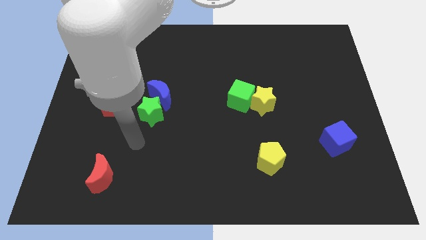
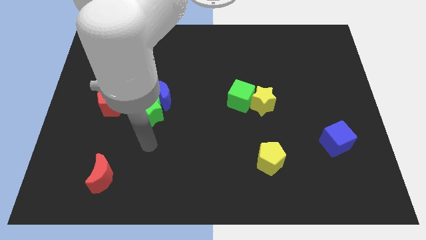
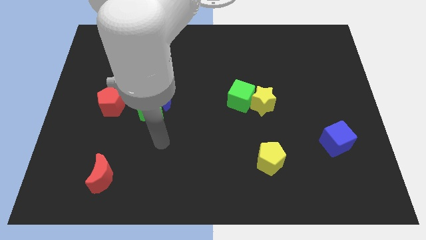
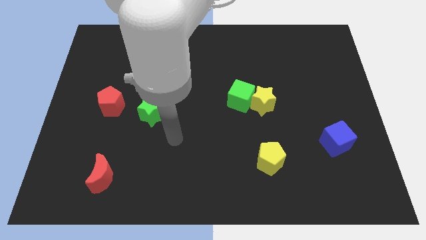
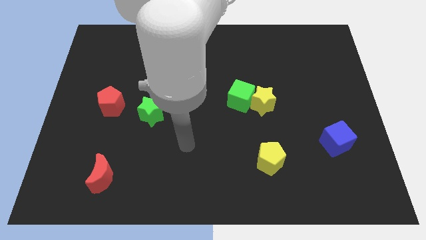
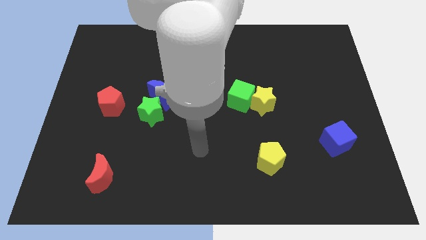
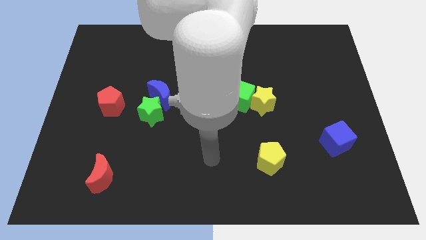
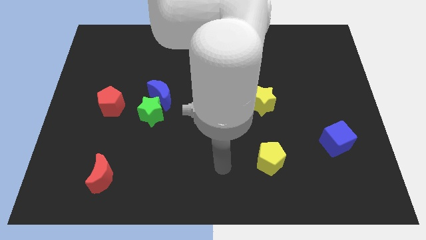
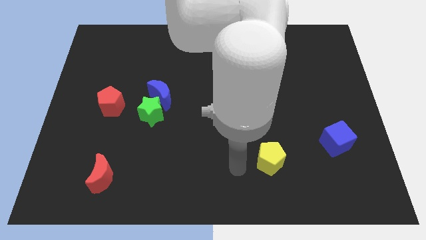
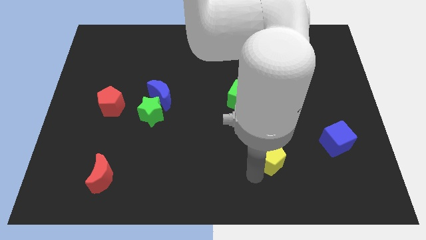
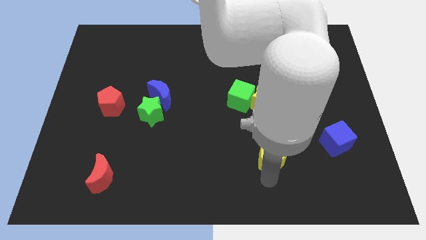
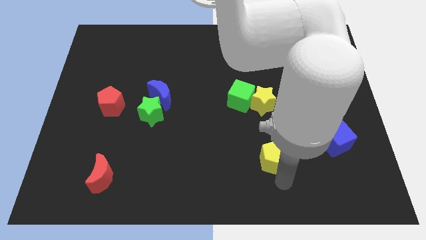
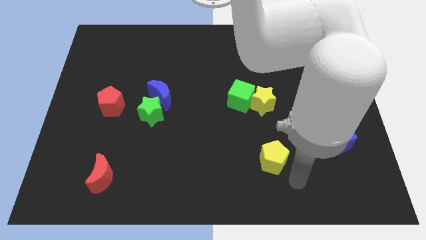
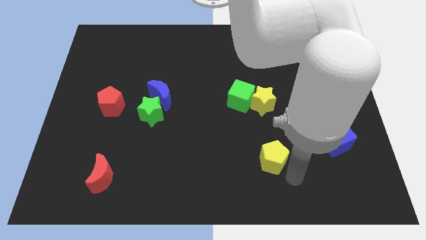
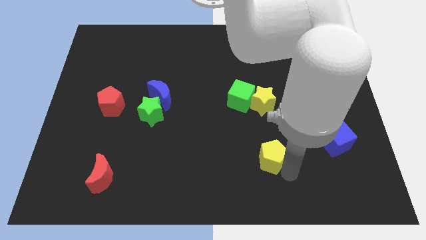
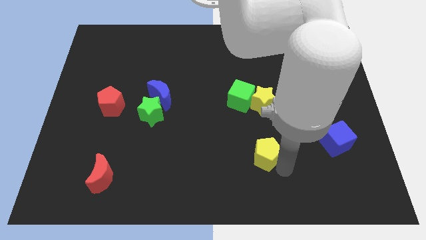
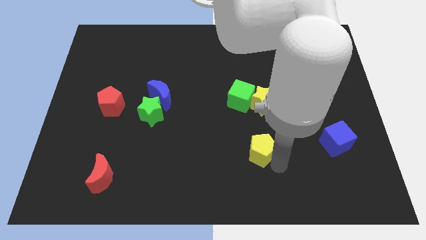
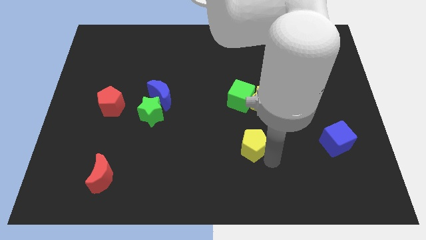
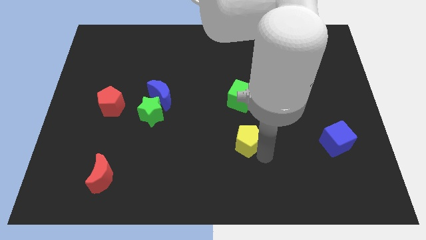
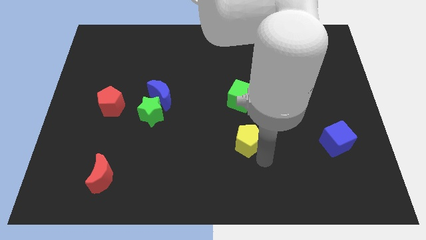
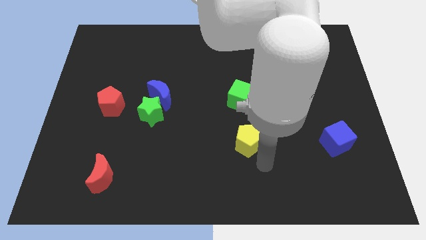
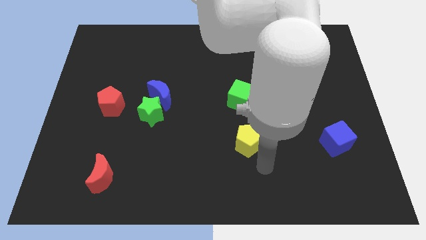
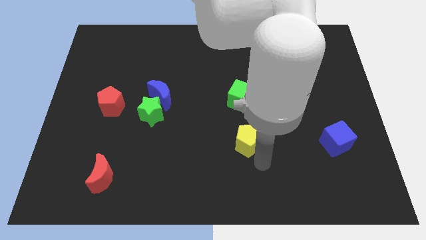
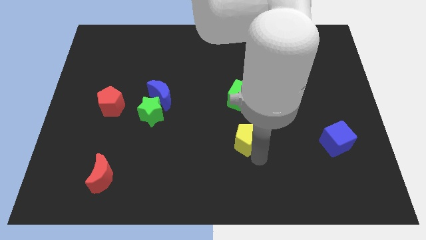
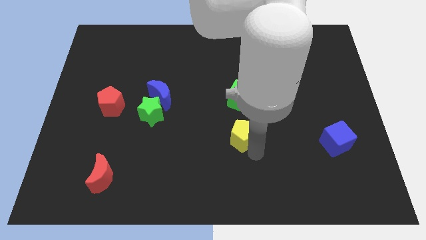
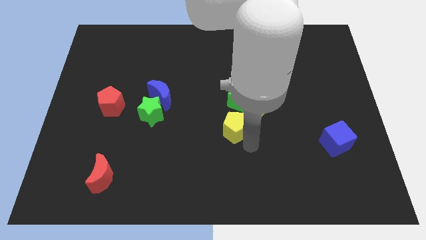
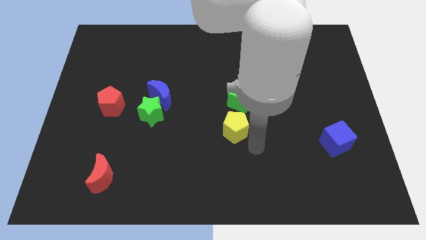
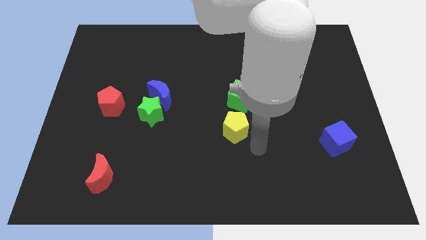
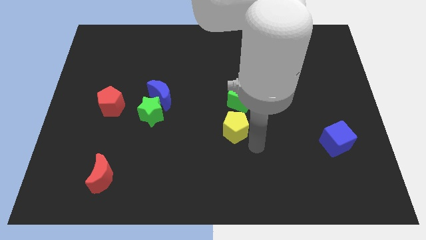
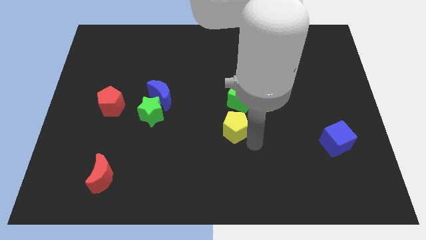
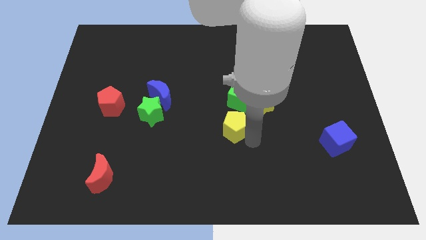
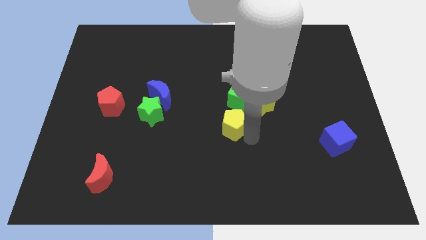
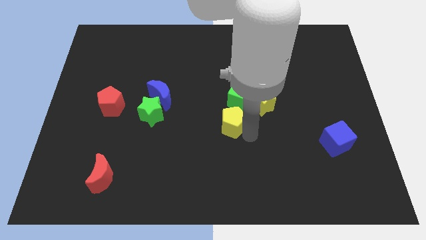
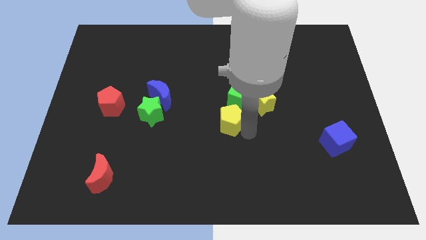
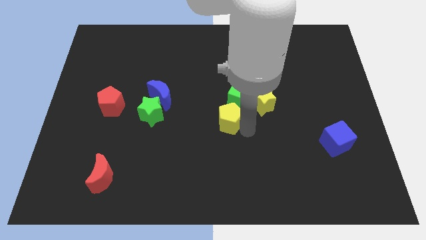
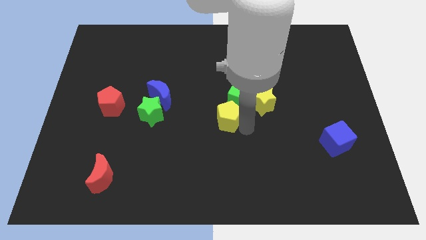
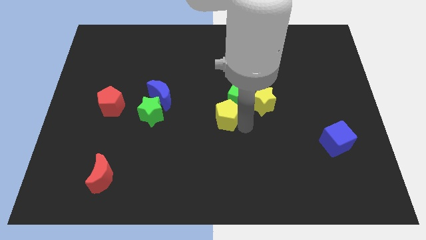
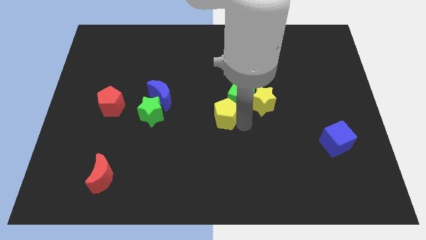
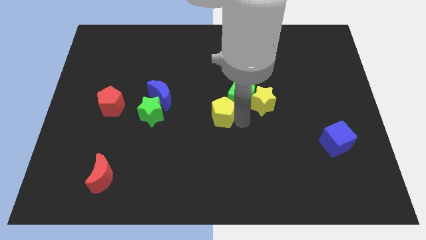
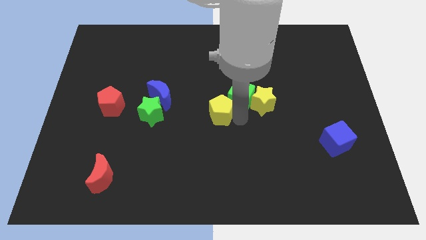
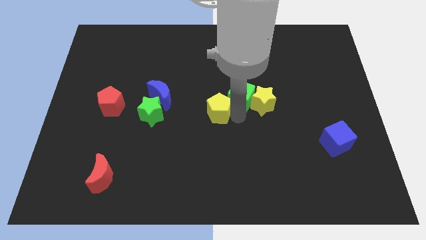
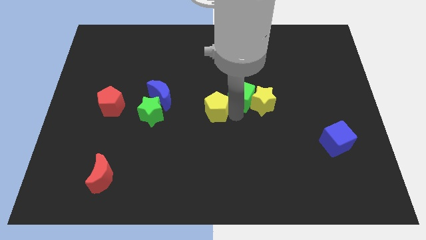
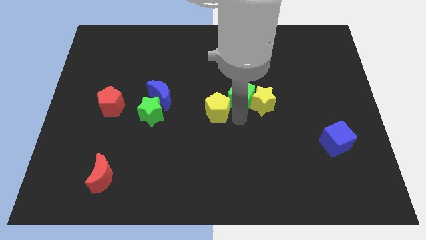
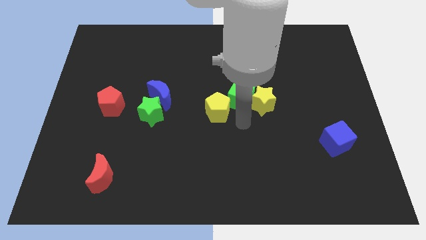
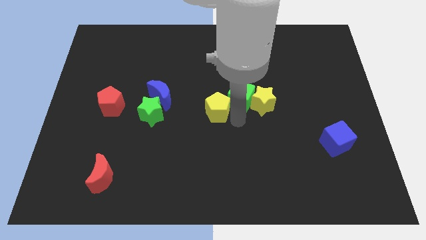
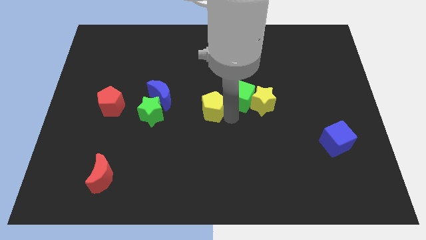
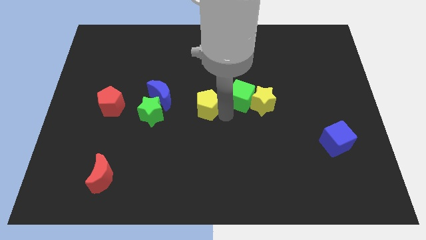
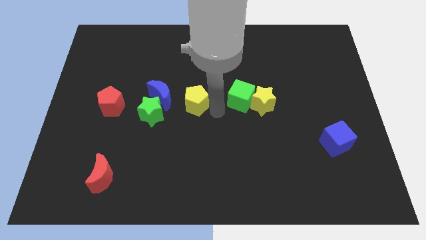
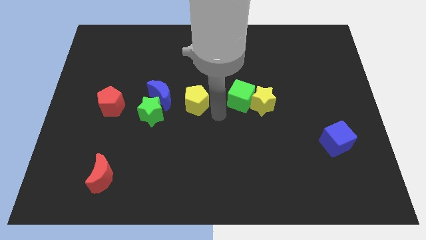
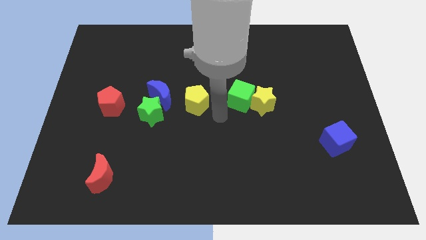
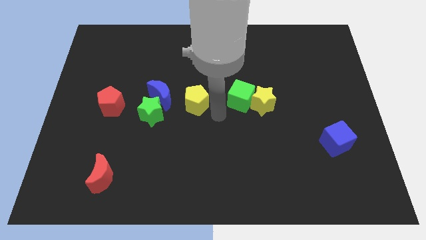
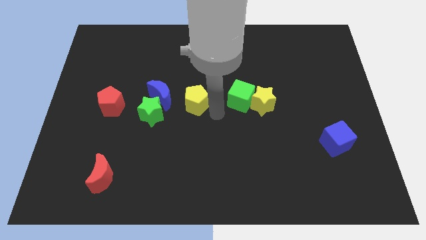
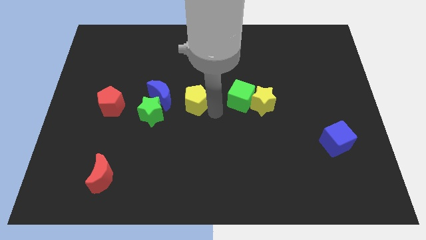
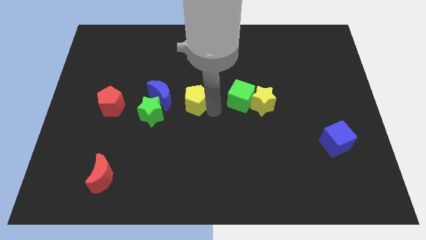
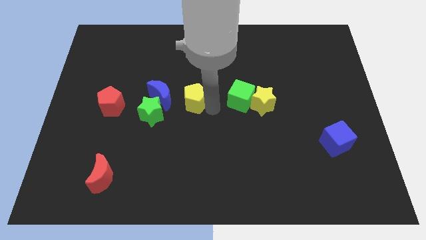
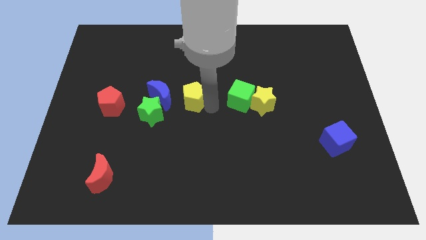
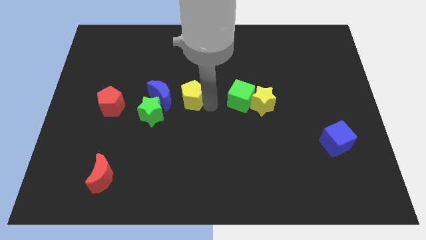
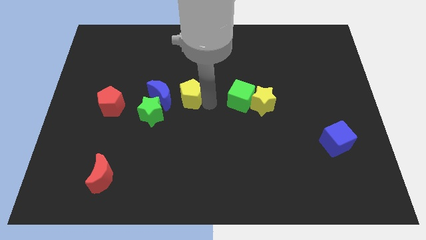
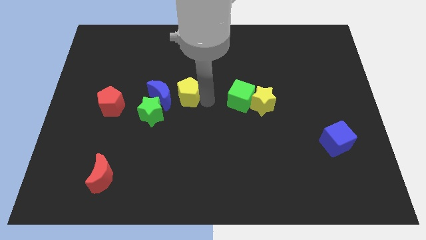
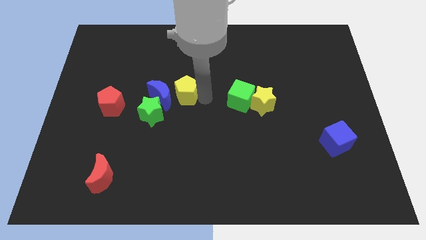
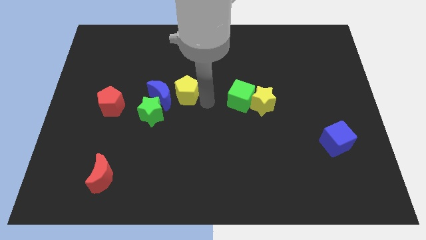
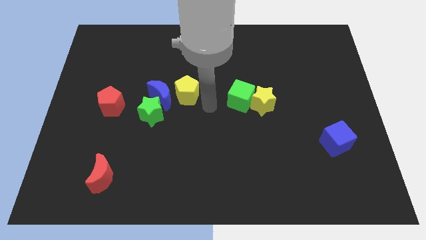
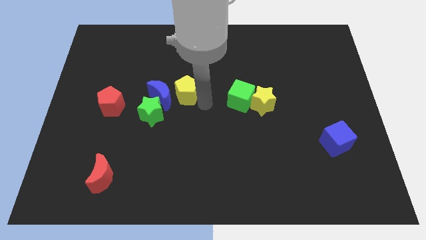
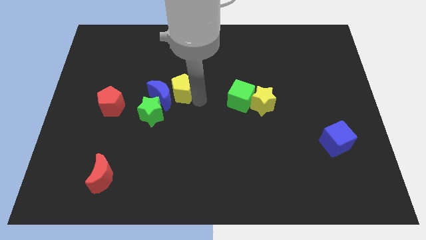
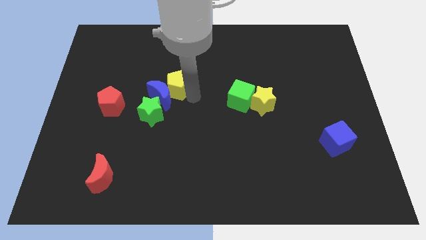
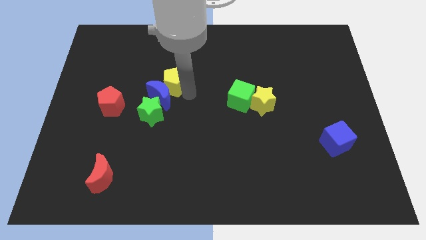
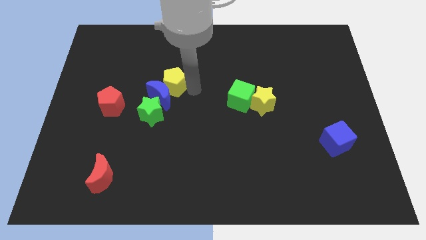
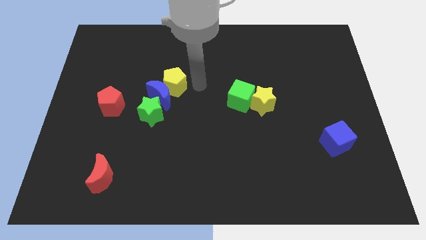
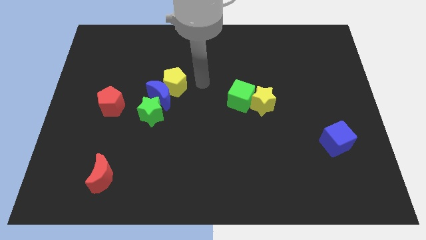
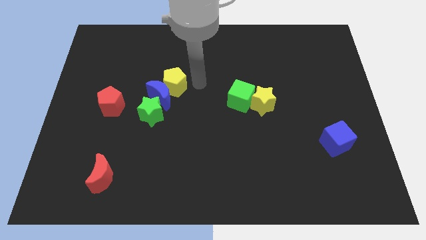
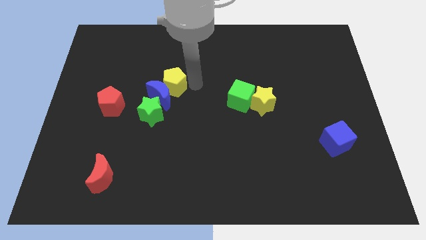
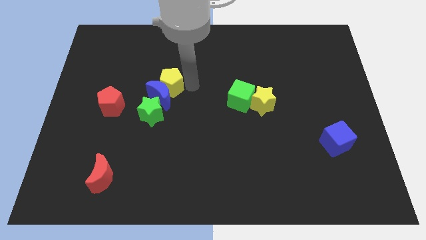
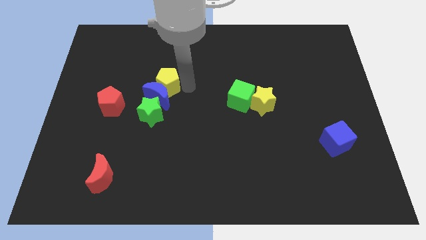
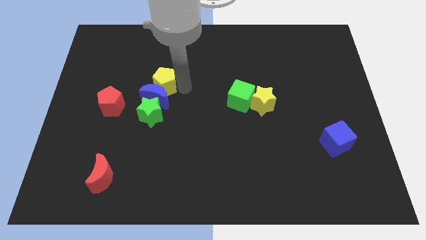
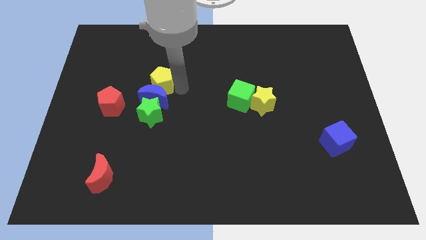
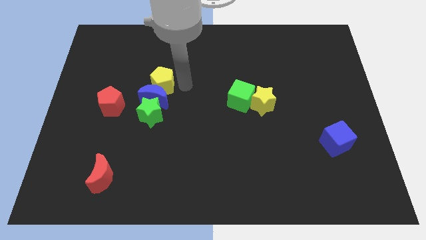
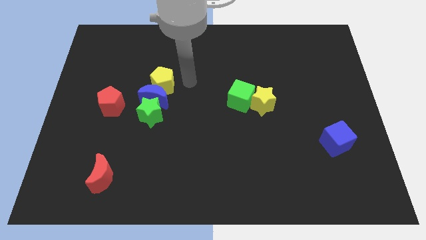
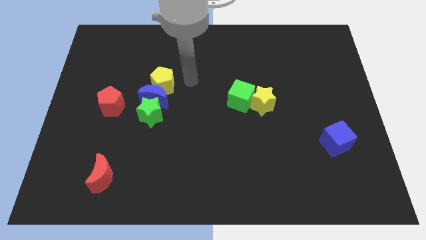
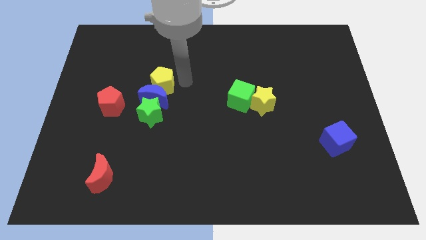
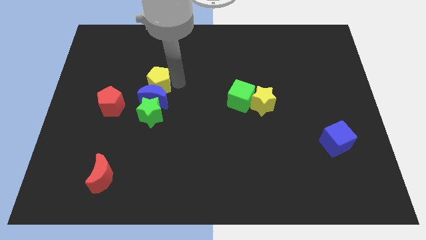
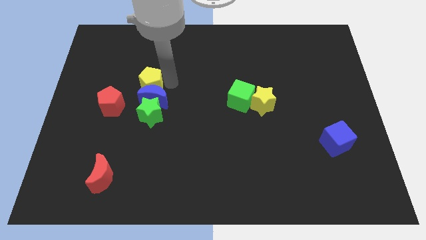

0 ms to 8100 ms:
slide the yellow pentagon to the top right of the red pentagon
